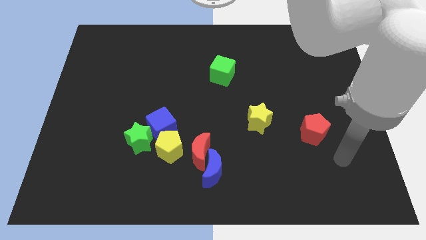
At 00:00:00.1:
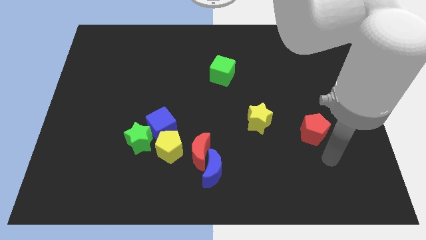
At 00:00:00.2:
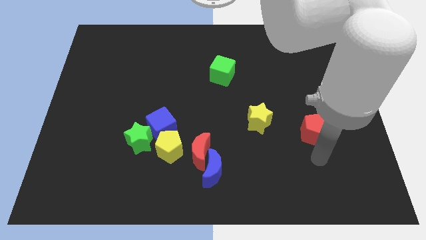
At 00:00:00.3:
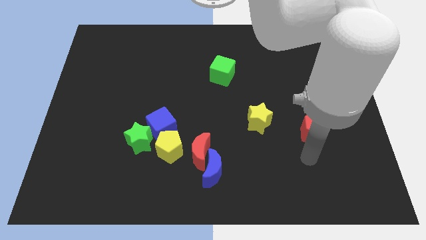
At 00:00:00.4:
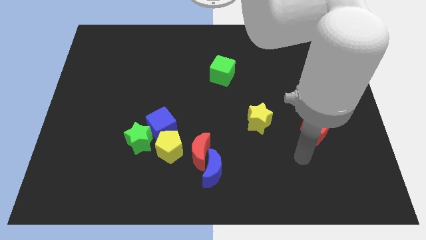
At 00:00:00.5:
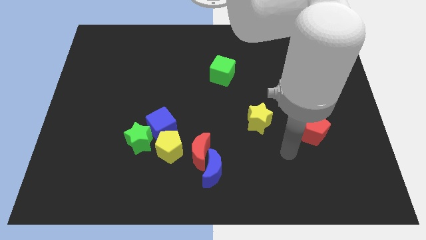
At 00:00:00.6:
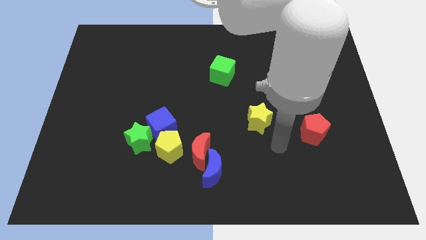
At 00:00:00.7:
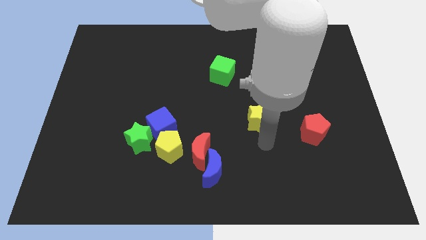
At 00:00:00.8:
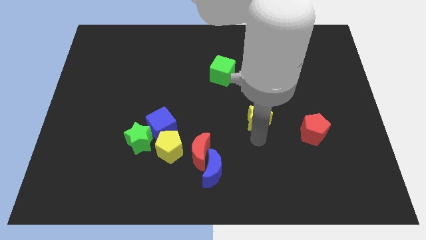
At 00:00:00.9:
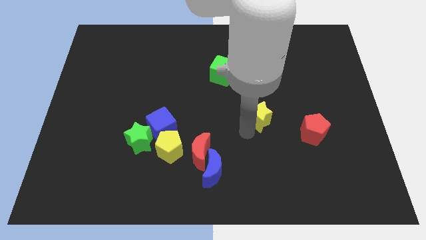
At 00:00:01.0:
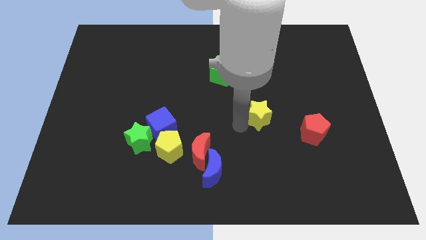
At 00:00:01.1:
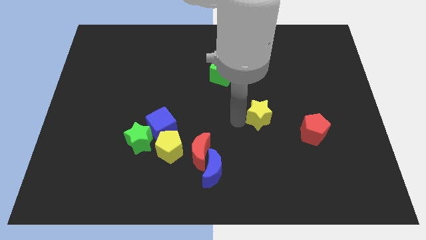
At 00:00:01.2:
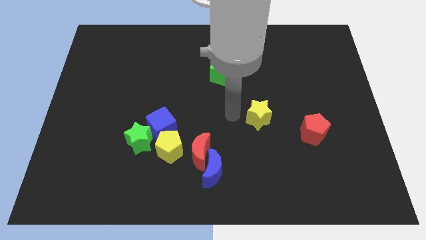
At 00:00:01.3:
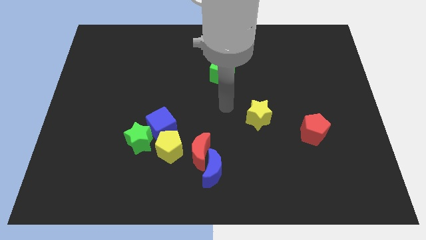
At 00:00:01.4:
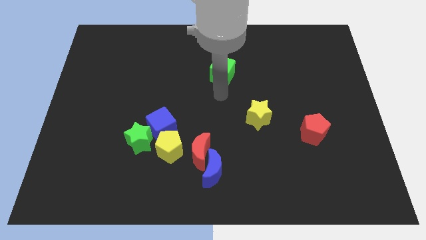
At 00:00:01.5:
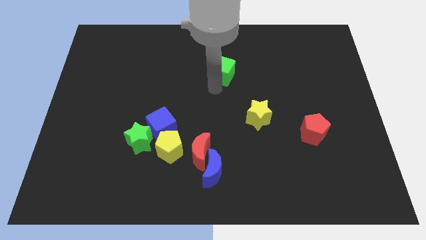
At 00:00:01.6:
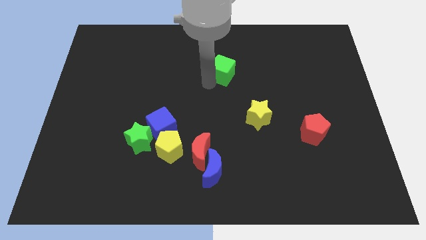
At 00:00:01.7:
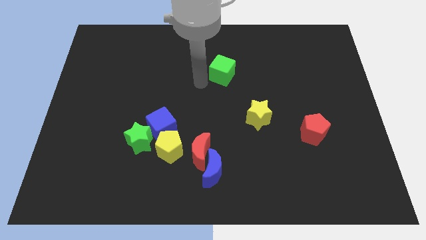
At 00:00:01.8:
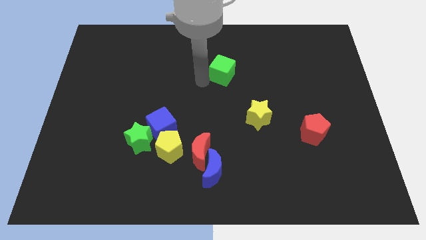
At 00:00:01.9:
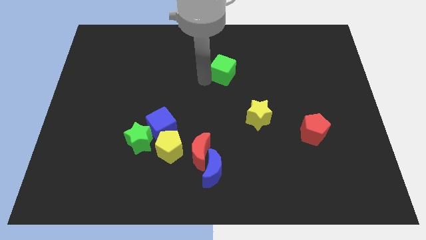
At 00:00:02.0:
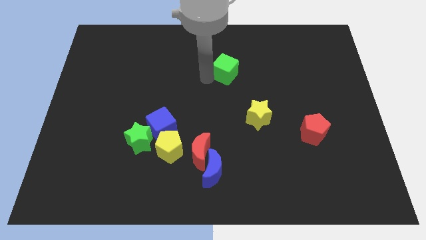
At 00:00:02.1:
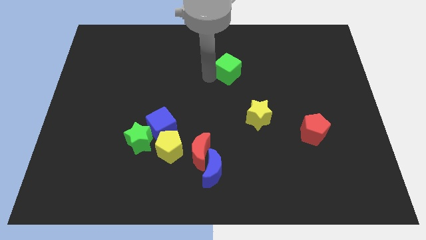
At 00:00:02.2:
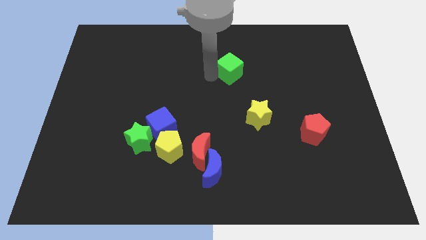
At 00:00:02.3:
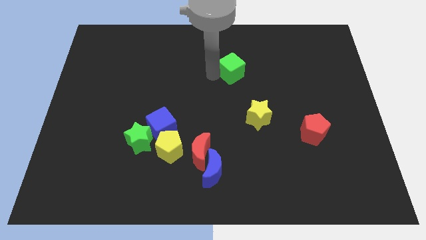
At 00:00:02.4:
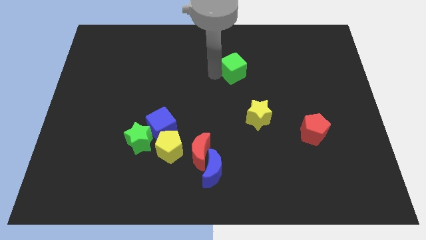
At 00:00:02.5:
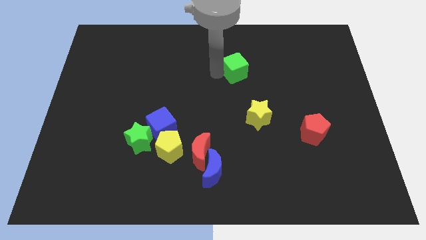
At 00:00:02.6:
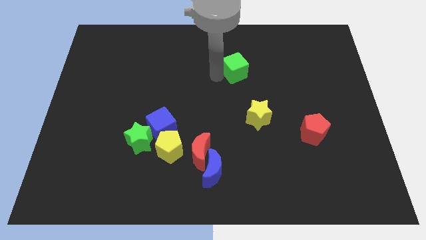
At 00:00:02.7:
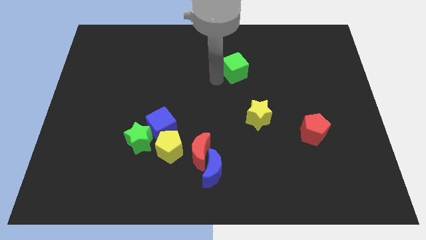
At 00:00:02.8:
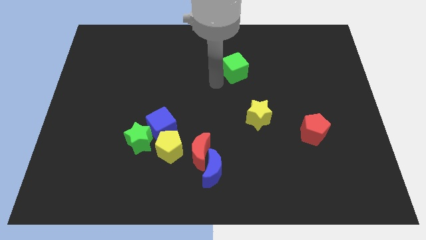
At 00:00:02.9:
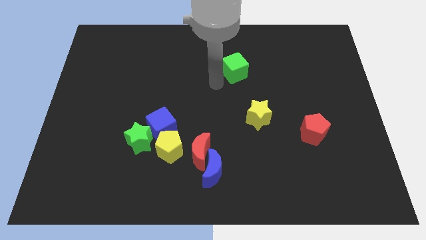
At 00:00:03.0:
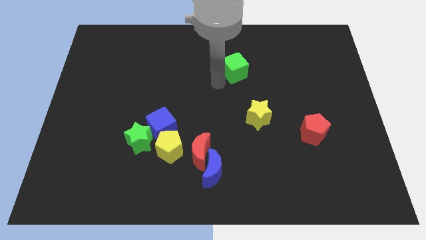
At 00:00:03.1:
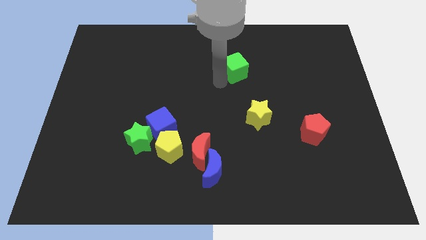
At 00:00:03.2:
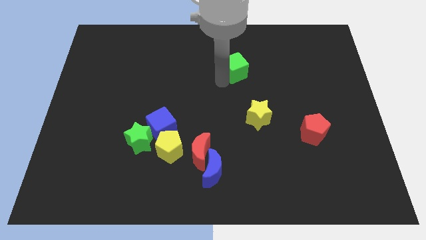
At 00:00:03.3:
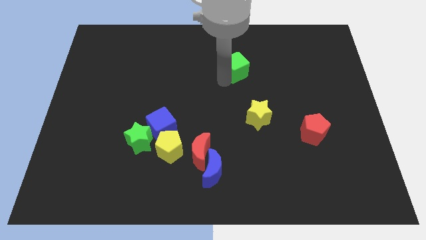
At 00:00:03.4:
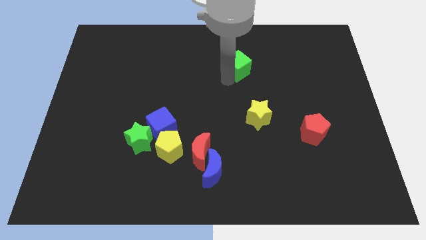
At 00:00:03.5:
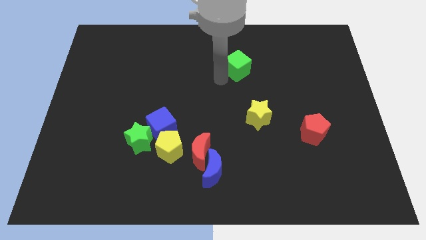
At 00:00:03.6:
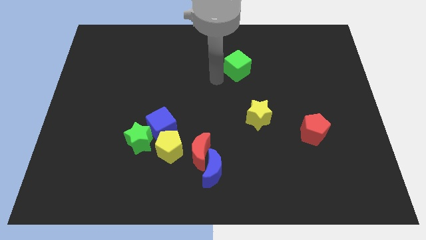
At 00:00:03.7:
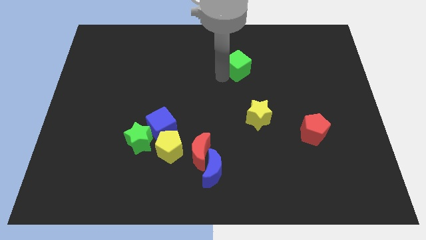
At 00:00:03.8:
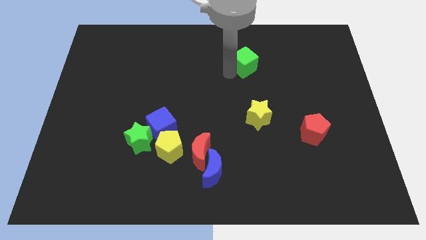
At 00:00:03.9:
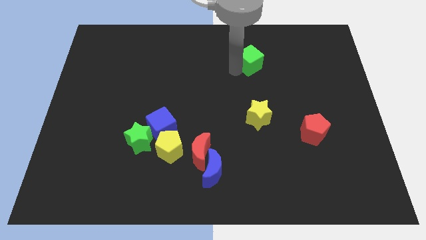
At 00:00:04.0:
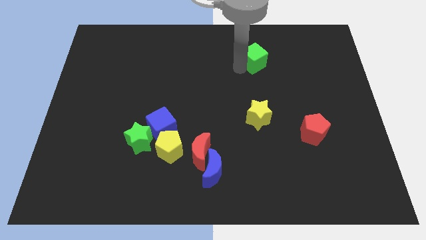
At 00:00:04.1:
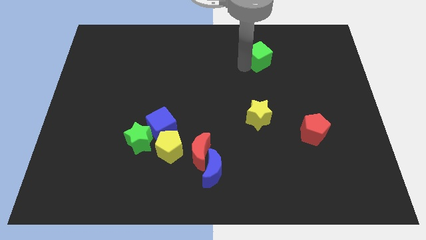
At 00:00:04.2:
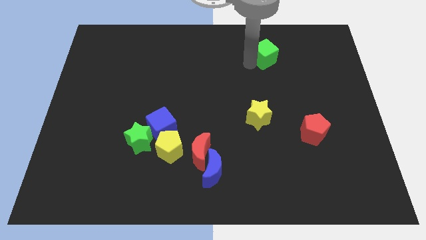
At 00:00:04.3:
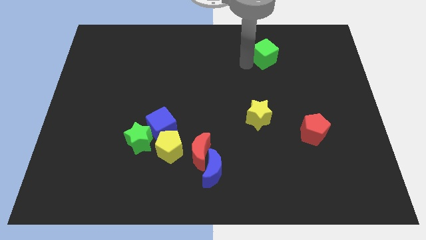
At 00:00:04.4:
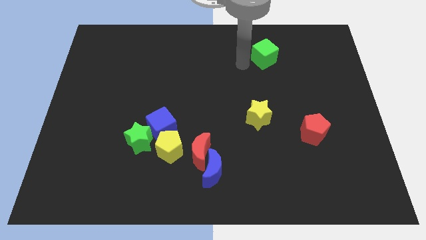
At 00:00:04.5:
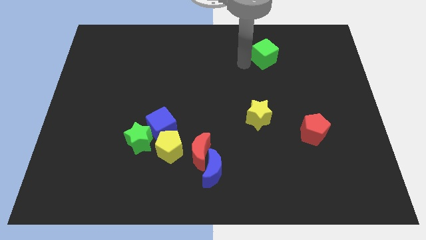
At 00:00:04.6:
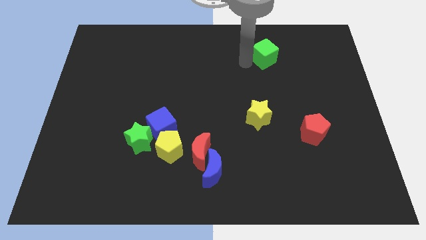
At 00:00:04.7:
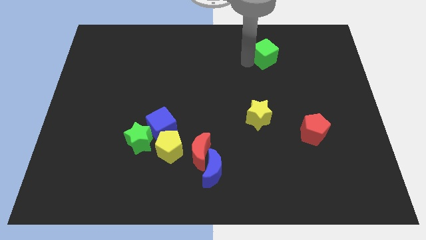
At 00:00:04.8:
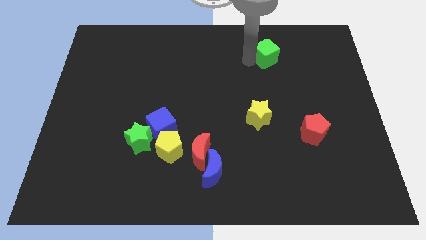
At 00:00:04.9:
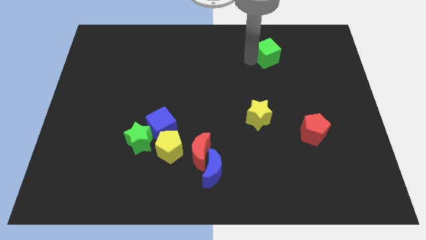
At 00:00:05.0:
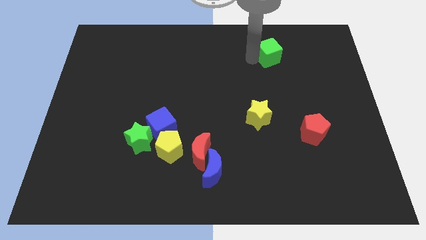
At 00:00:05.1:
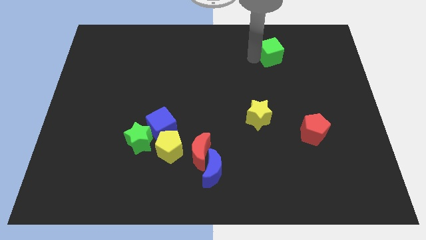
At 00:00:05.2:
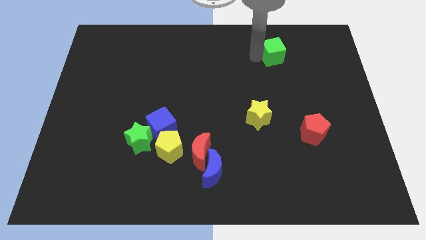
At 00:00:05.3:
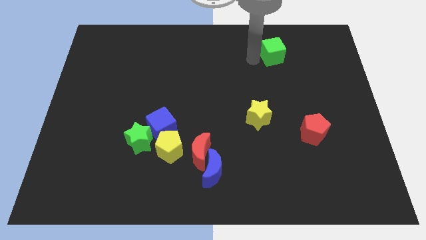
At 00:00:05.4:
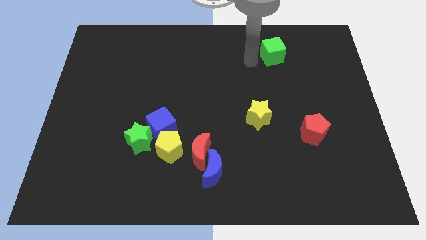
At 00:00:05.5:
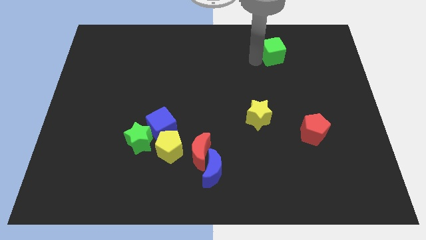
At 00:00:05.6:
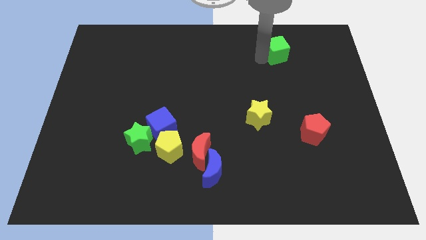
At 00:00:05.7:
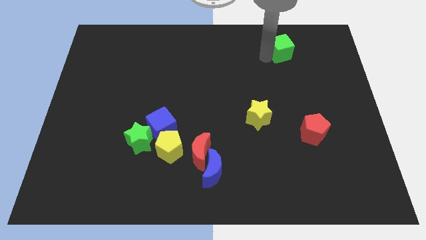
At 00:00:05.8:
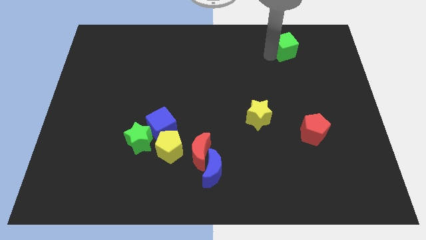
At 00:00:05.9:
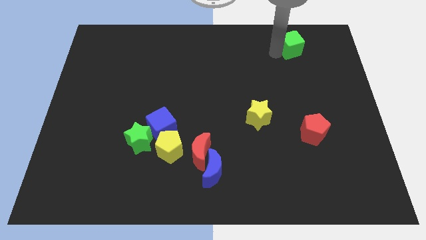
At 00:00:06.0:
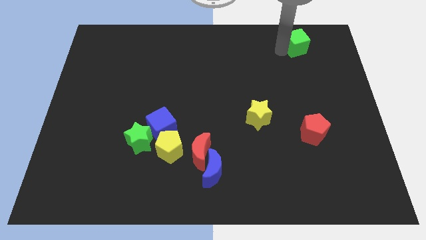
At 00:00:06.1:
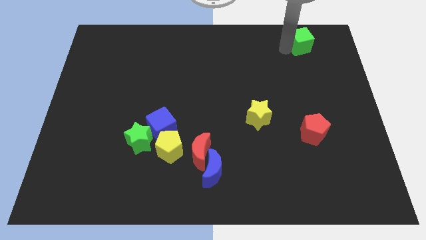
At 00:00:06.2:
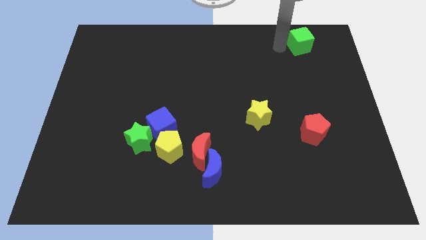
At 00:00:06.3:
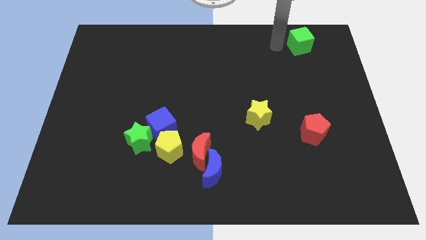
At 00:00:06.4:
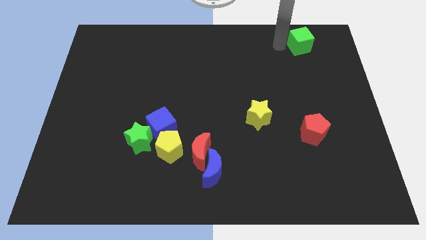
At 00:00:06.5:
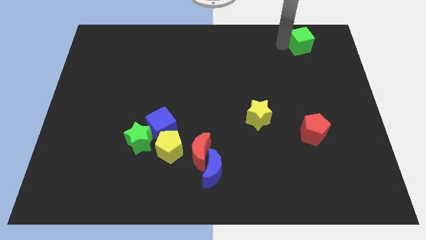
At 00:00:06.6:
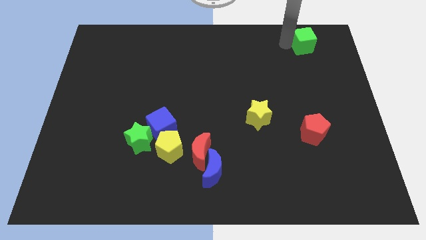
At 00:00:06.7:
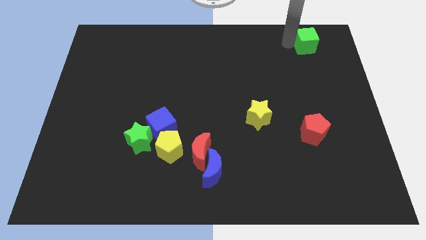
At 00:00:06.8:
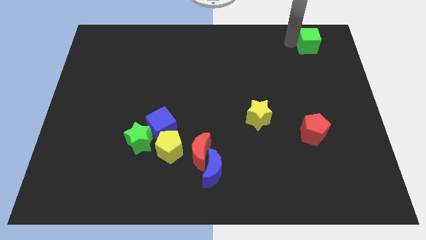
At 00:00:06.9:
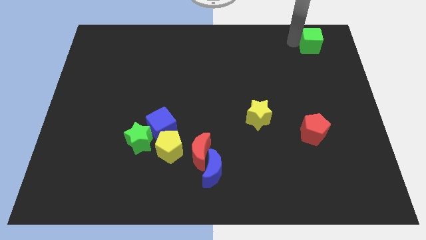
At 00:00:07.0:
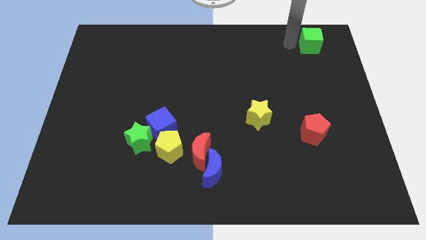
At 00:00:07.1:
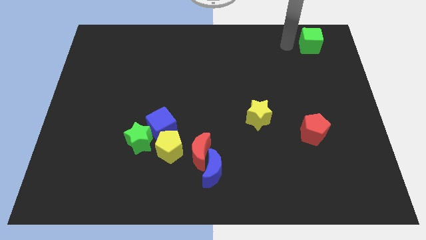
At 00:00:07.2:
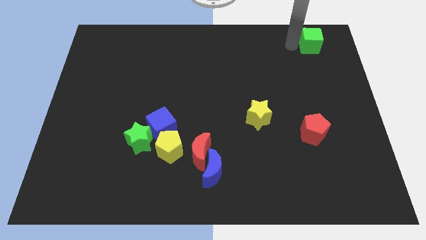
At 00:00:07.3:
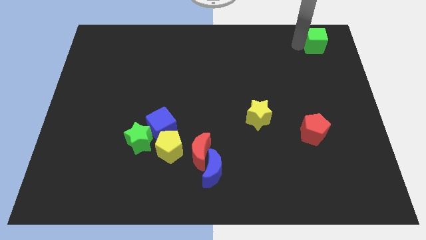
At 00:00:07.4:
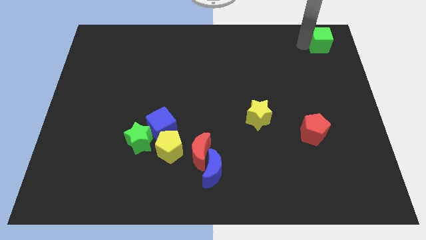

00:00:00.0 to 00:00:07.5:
put the green cube to the top right corner
